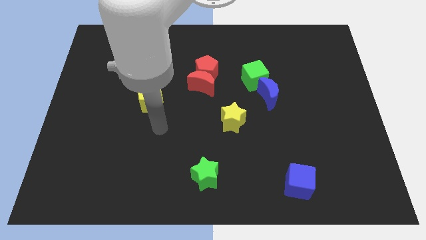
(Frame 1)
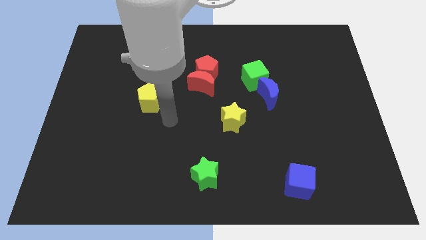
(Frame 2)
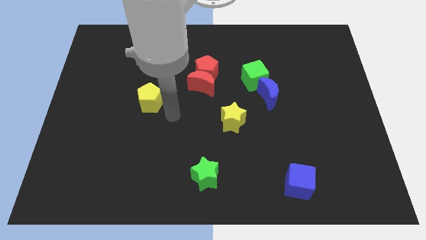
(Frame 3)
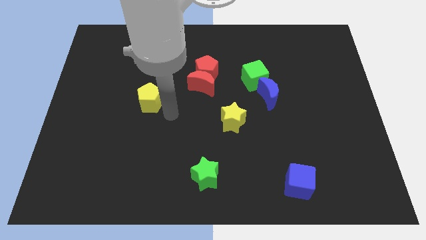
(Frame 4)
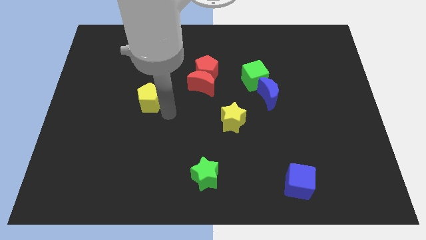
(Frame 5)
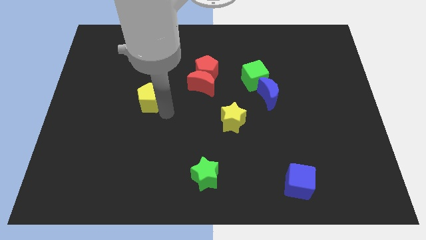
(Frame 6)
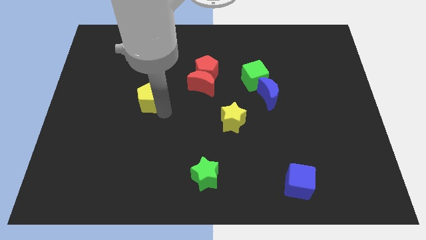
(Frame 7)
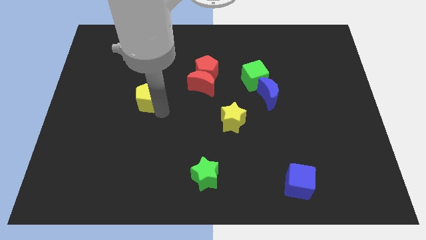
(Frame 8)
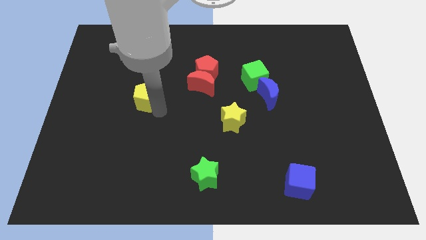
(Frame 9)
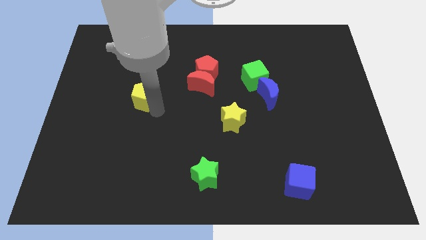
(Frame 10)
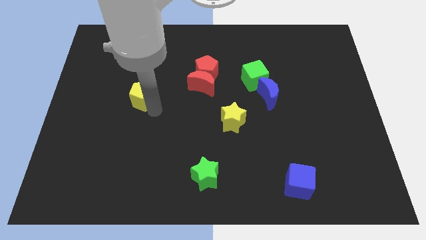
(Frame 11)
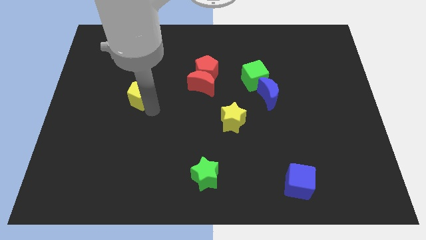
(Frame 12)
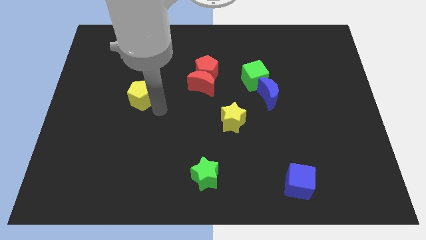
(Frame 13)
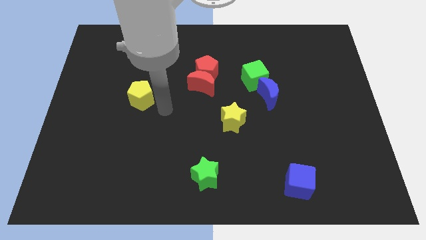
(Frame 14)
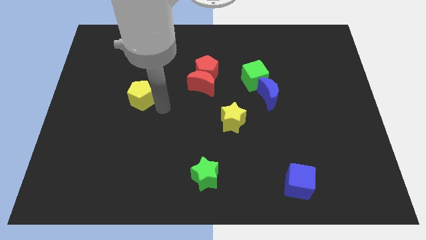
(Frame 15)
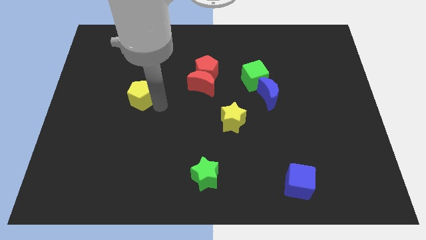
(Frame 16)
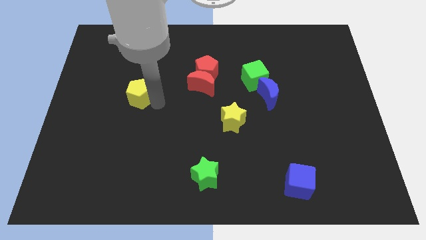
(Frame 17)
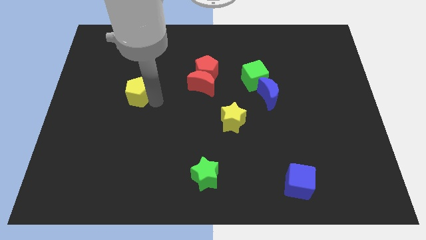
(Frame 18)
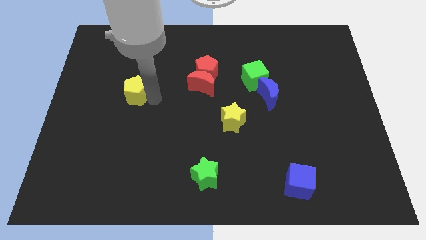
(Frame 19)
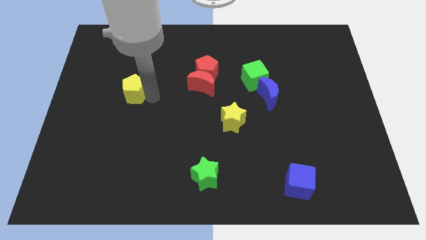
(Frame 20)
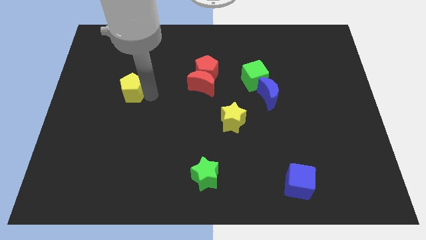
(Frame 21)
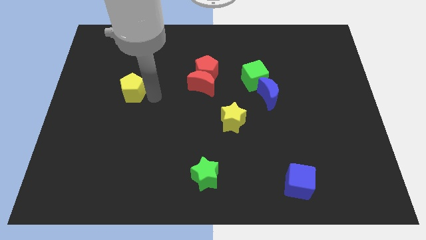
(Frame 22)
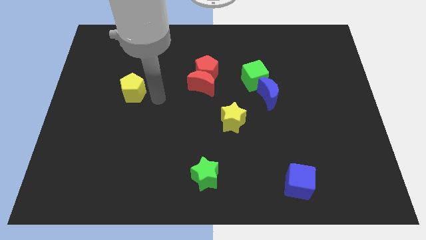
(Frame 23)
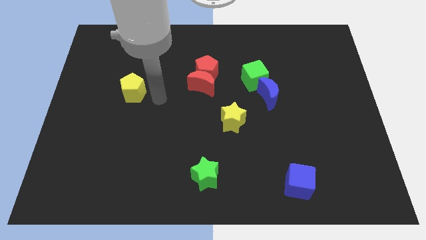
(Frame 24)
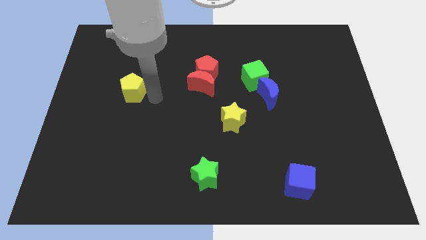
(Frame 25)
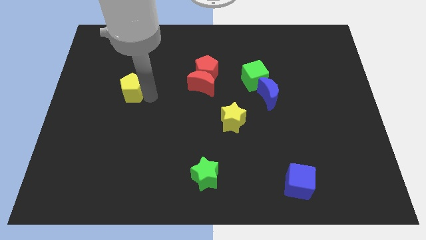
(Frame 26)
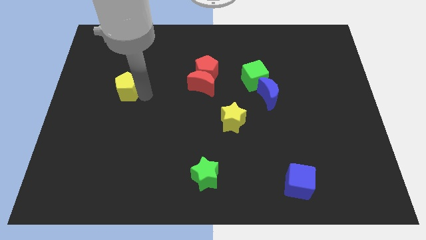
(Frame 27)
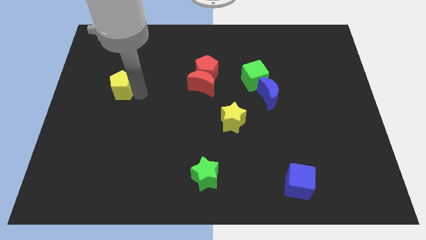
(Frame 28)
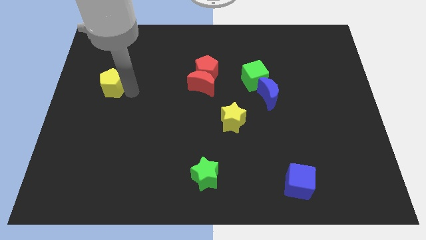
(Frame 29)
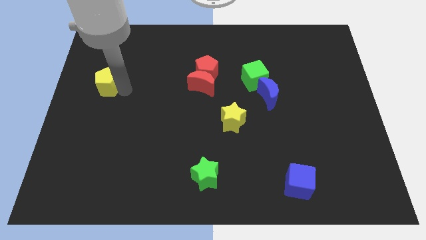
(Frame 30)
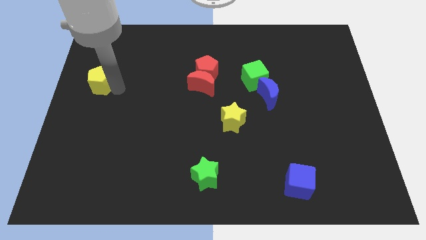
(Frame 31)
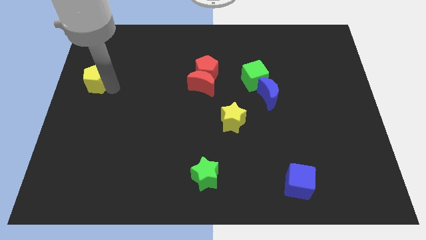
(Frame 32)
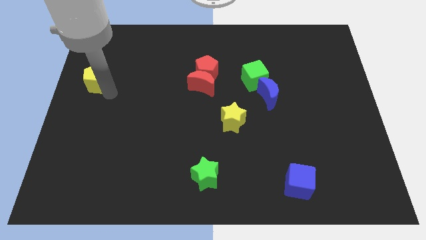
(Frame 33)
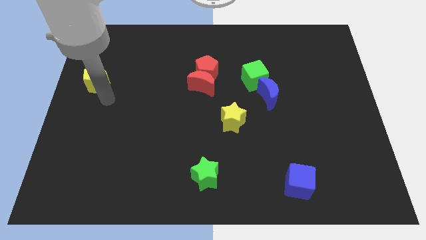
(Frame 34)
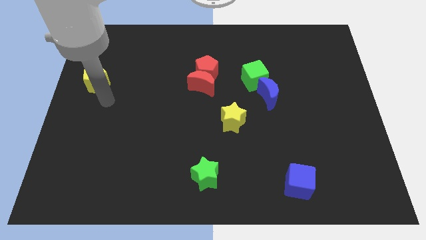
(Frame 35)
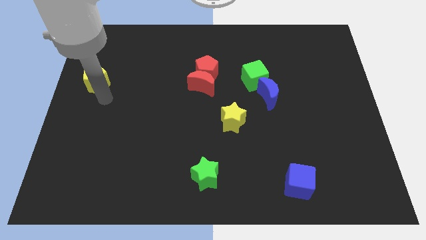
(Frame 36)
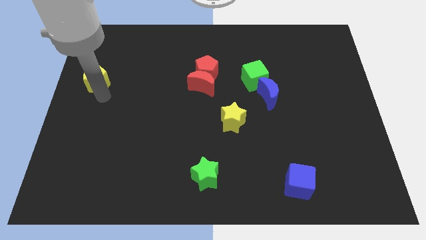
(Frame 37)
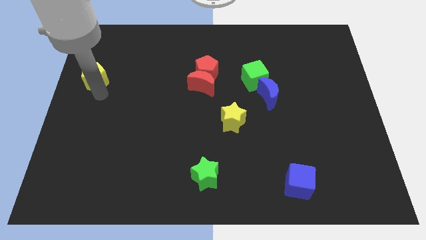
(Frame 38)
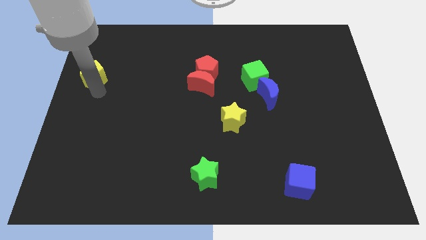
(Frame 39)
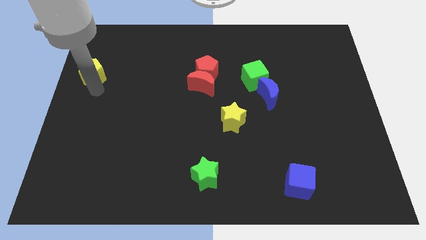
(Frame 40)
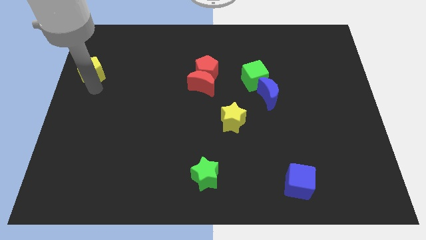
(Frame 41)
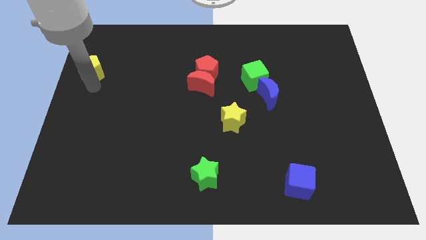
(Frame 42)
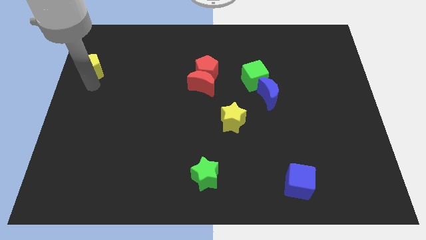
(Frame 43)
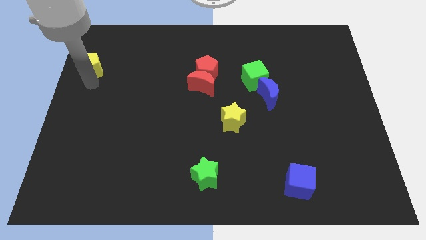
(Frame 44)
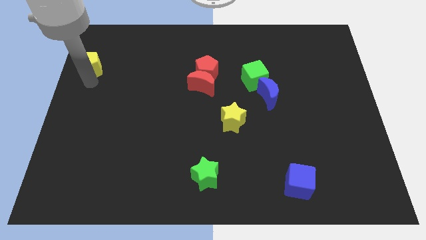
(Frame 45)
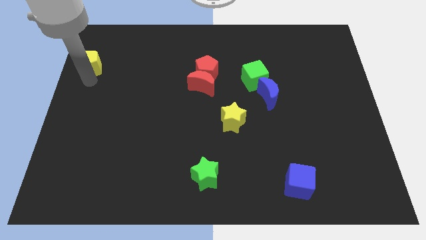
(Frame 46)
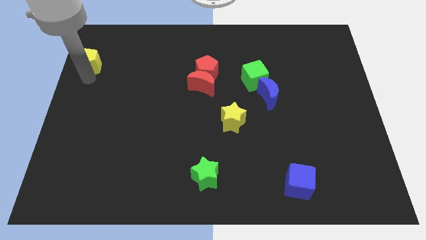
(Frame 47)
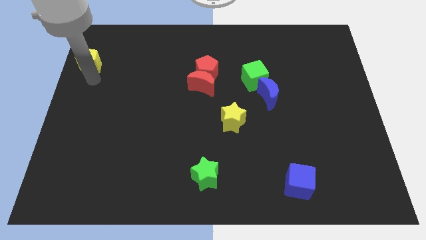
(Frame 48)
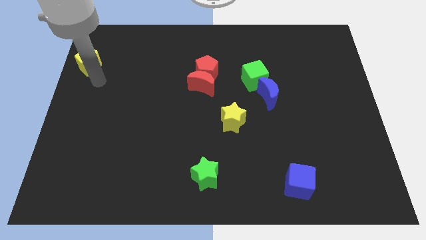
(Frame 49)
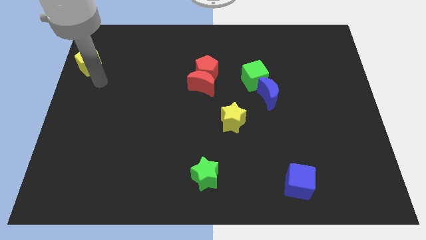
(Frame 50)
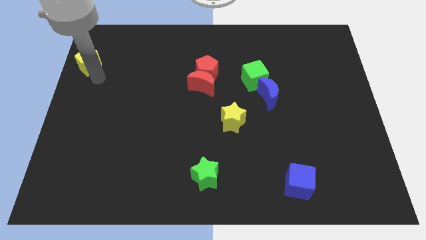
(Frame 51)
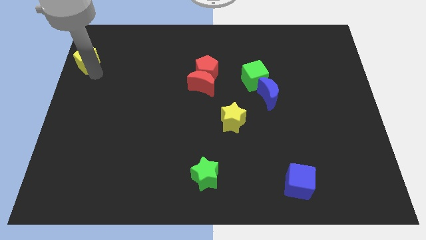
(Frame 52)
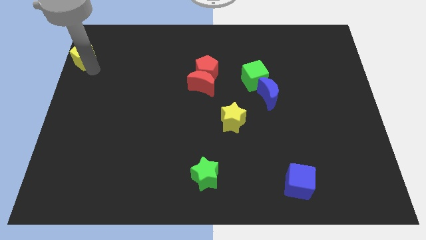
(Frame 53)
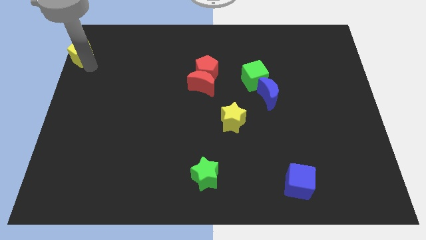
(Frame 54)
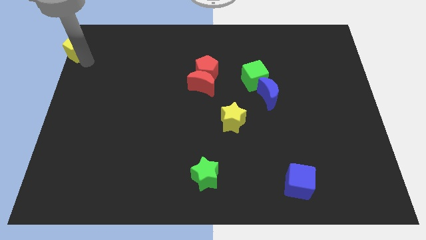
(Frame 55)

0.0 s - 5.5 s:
move the yellow pentagon to the top left of the board
